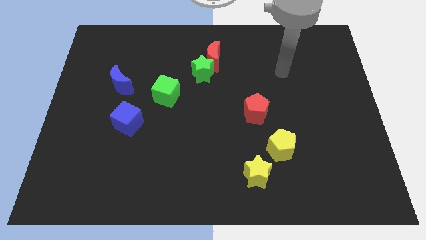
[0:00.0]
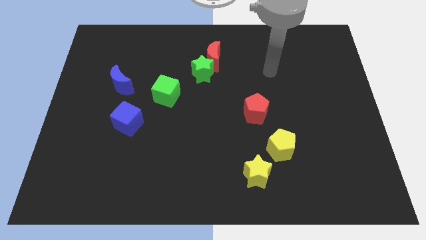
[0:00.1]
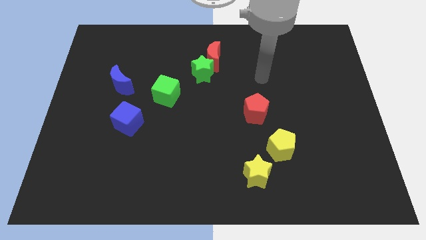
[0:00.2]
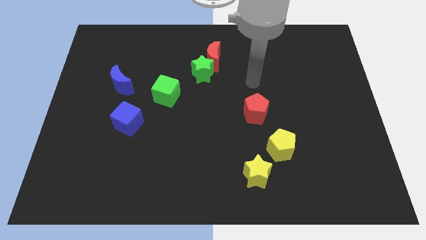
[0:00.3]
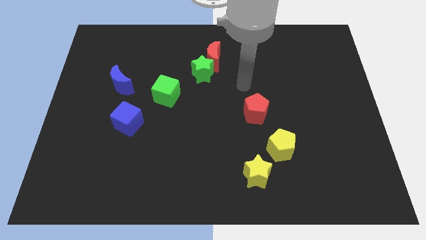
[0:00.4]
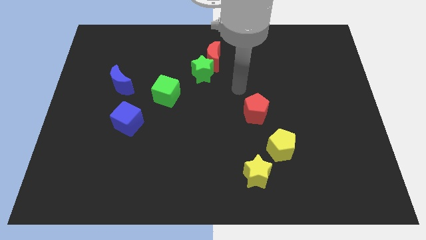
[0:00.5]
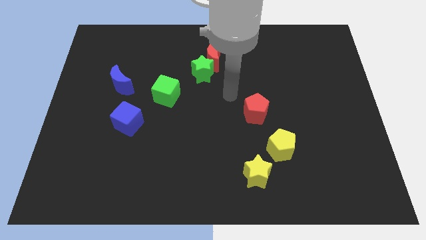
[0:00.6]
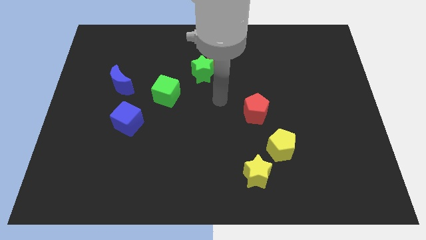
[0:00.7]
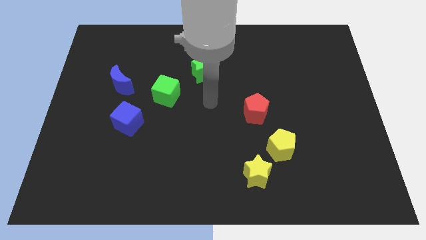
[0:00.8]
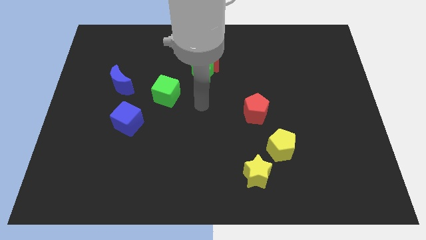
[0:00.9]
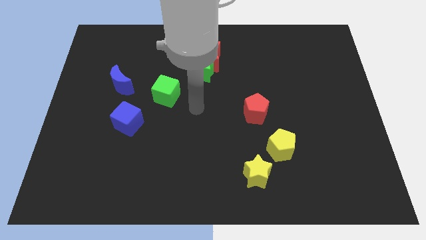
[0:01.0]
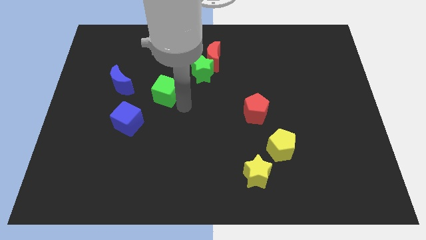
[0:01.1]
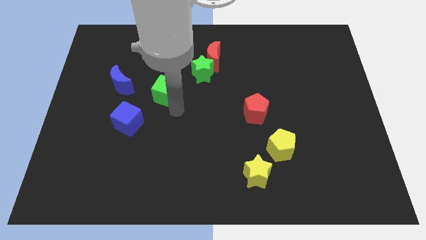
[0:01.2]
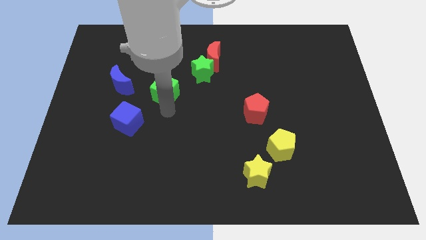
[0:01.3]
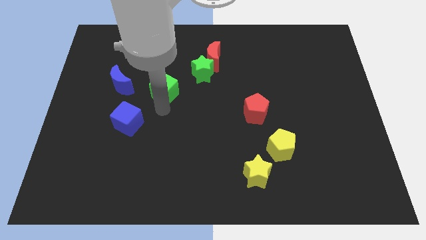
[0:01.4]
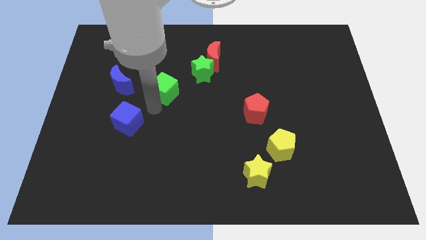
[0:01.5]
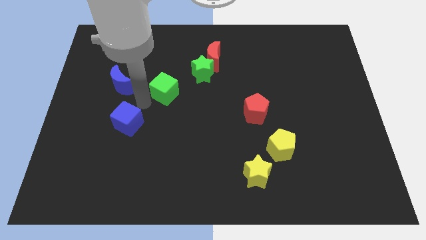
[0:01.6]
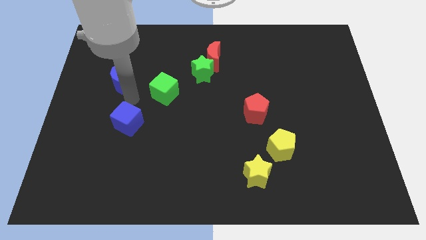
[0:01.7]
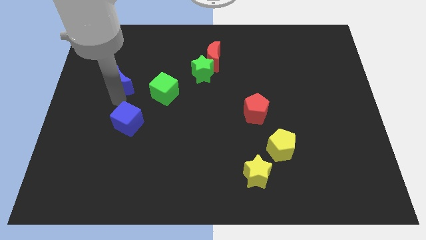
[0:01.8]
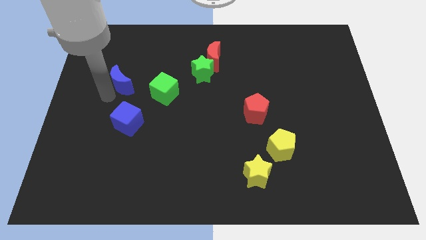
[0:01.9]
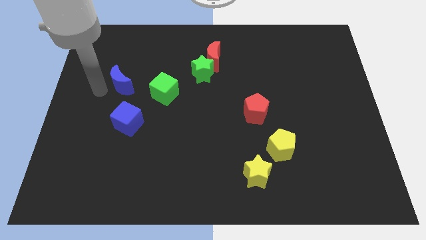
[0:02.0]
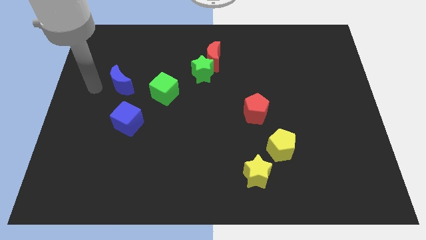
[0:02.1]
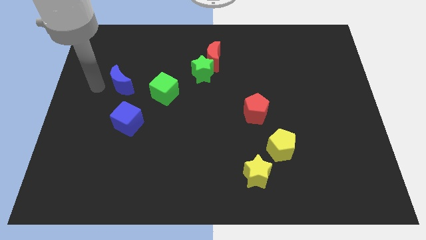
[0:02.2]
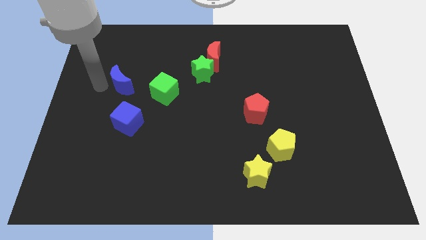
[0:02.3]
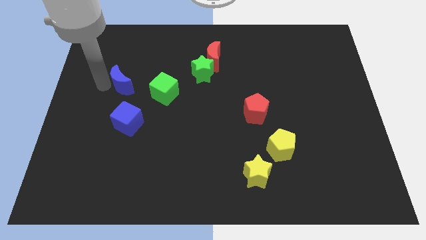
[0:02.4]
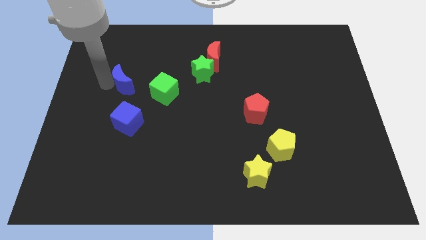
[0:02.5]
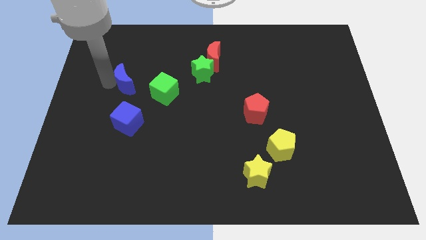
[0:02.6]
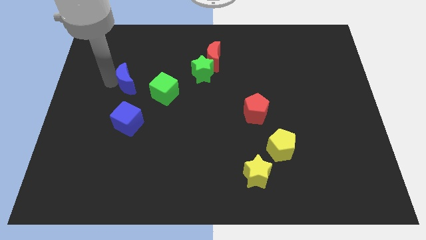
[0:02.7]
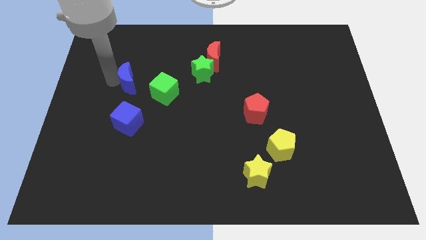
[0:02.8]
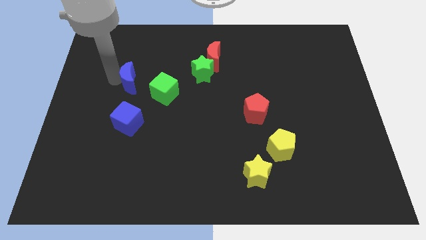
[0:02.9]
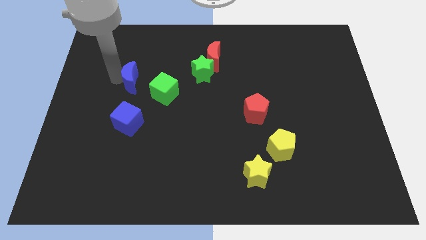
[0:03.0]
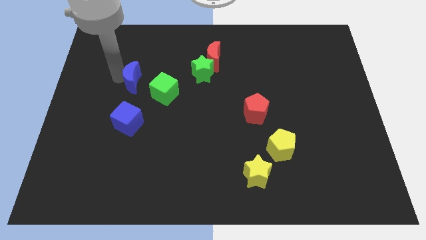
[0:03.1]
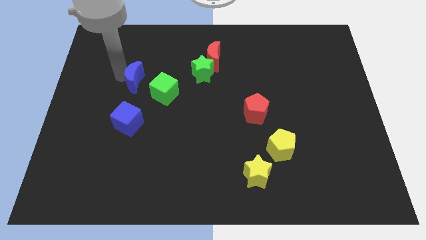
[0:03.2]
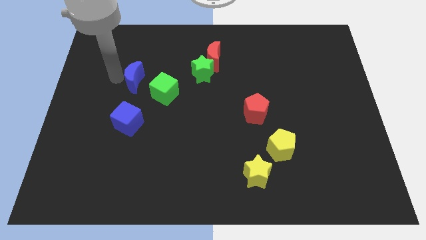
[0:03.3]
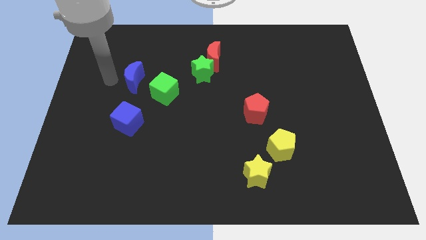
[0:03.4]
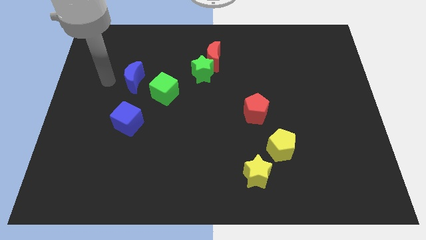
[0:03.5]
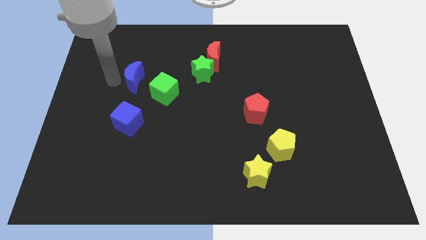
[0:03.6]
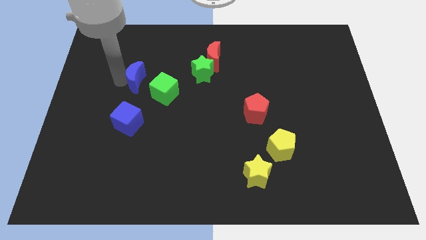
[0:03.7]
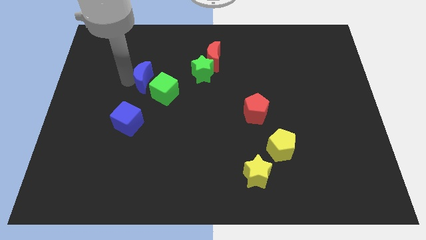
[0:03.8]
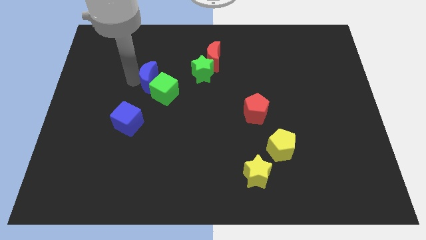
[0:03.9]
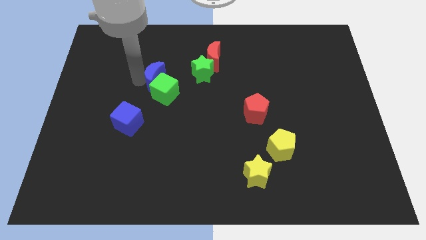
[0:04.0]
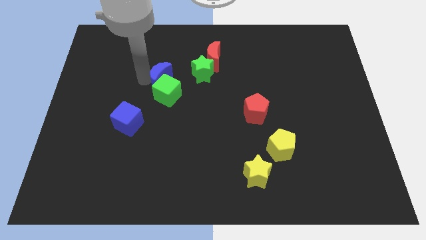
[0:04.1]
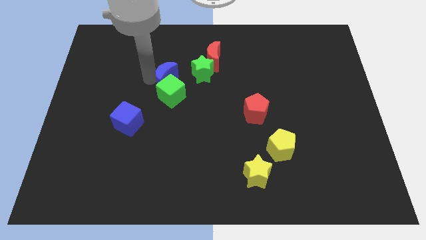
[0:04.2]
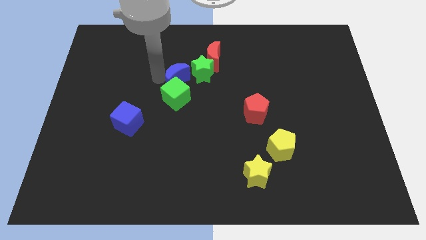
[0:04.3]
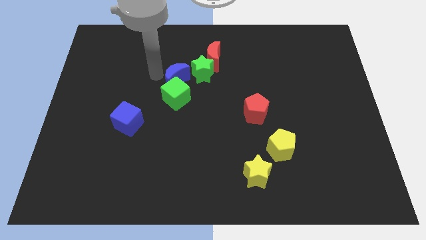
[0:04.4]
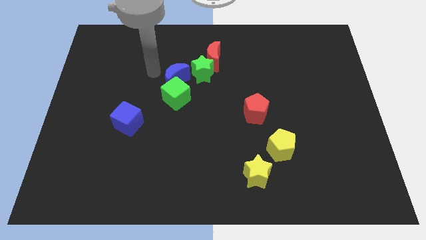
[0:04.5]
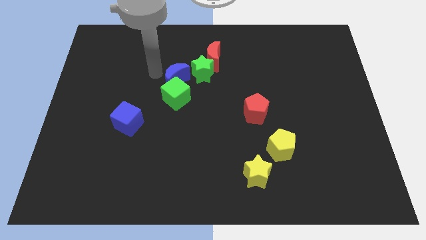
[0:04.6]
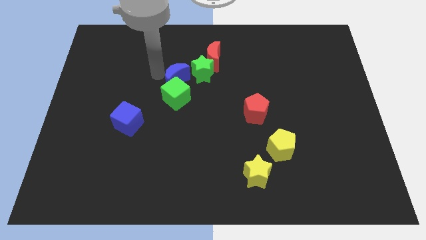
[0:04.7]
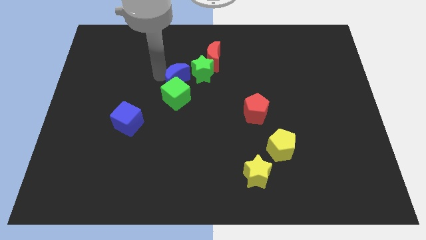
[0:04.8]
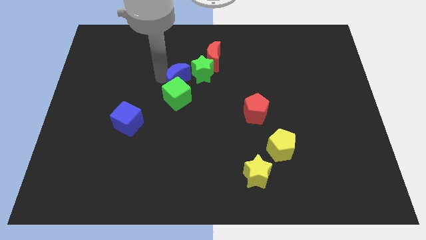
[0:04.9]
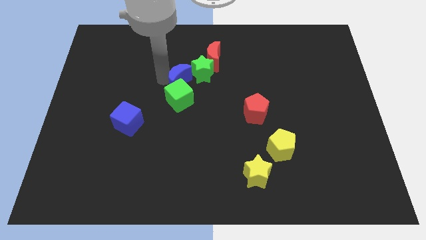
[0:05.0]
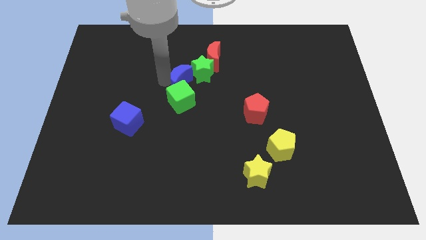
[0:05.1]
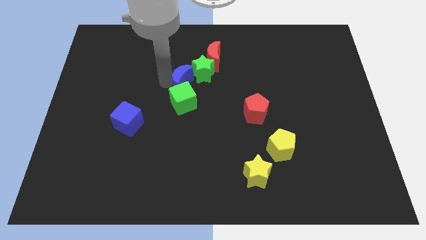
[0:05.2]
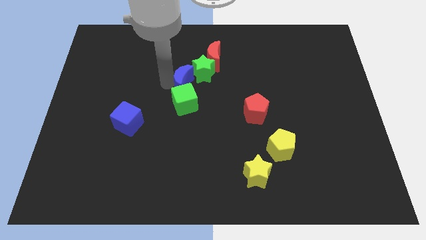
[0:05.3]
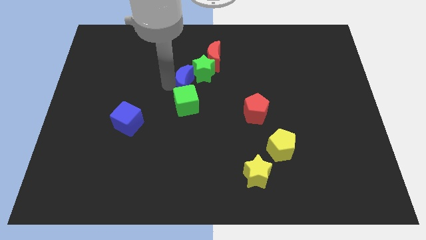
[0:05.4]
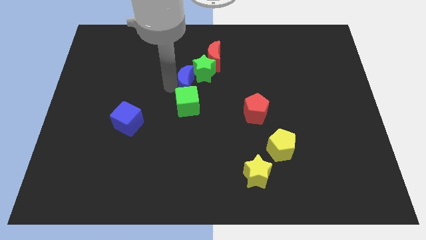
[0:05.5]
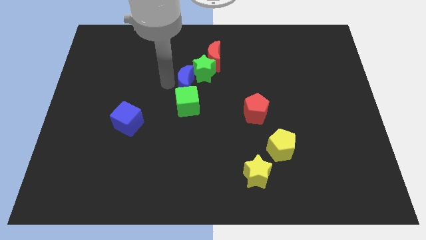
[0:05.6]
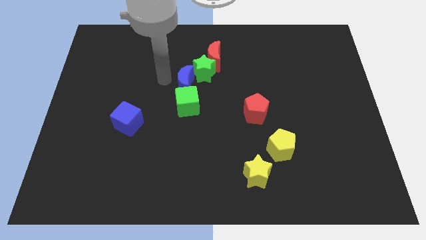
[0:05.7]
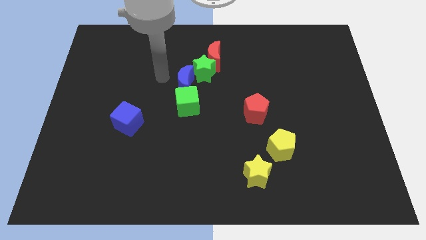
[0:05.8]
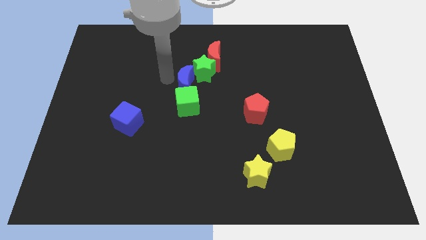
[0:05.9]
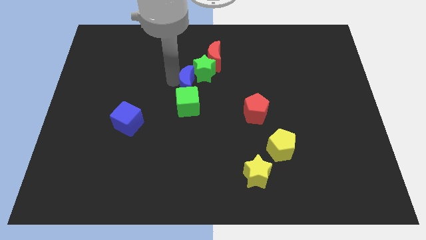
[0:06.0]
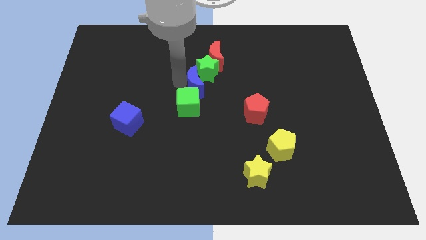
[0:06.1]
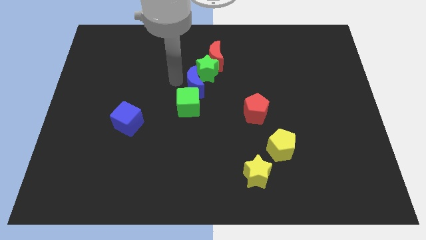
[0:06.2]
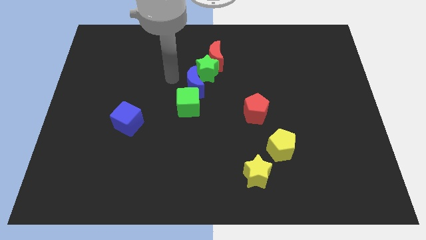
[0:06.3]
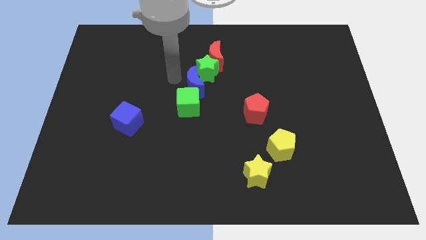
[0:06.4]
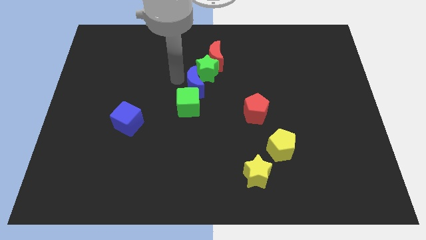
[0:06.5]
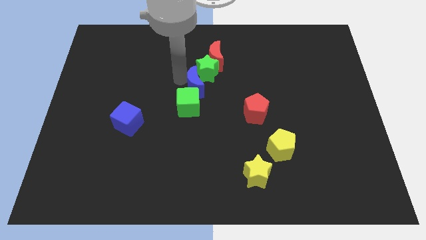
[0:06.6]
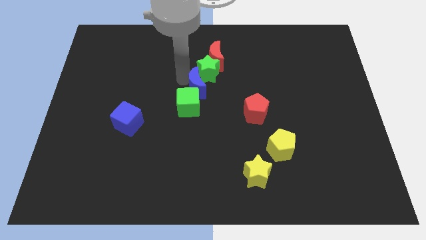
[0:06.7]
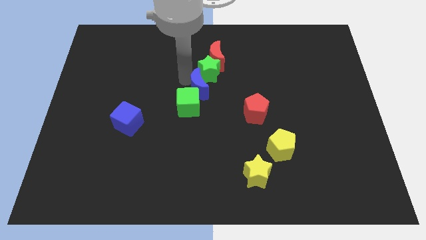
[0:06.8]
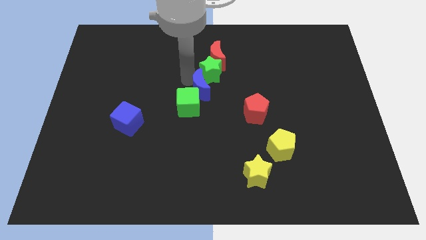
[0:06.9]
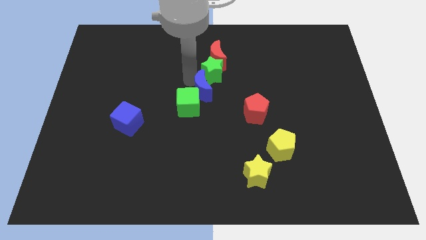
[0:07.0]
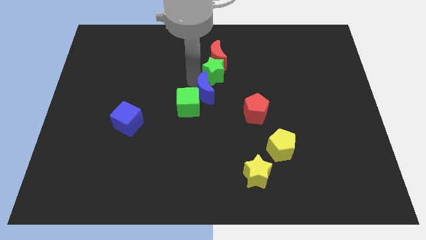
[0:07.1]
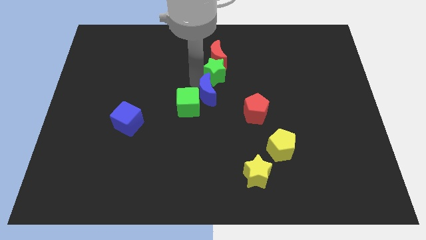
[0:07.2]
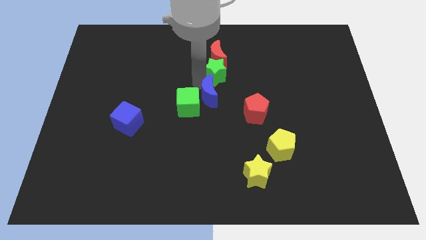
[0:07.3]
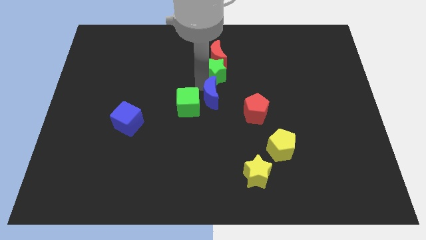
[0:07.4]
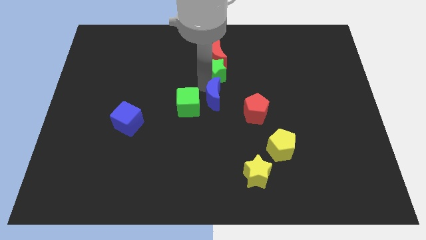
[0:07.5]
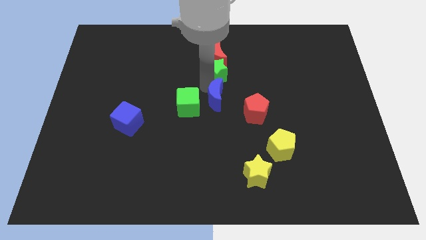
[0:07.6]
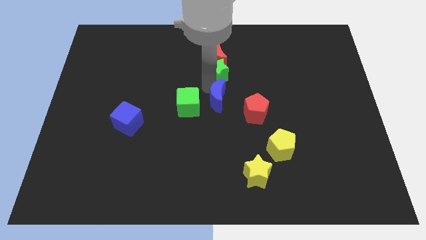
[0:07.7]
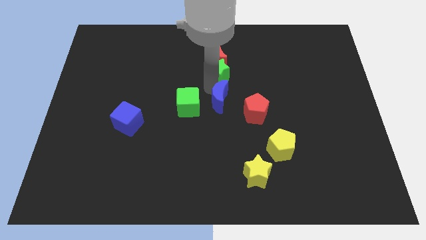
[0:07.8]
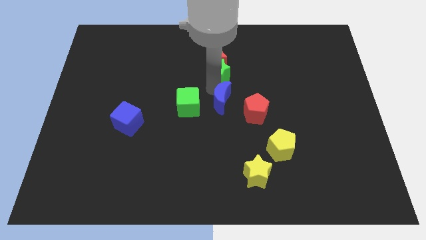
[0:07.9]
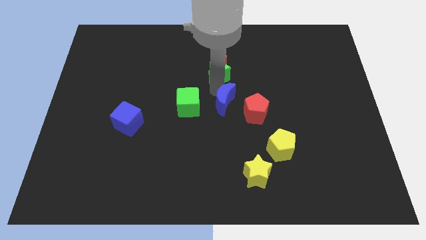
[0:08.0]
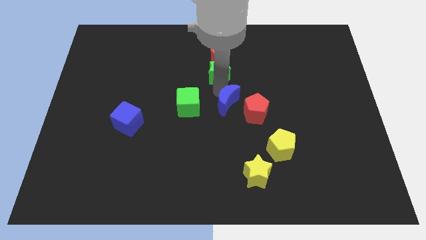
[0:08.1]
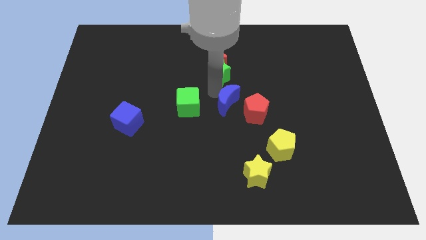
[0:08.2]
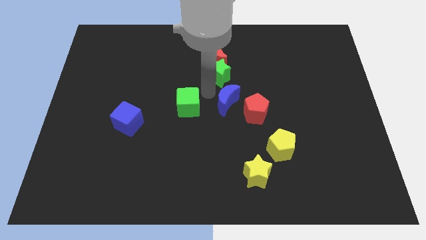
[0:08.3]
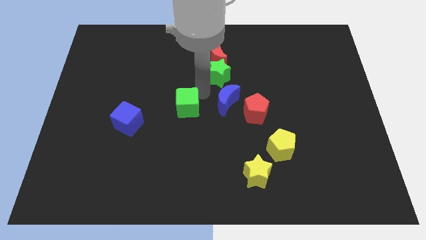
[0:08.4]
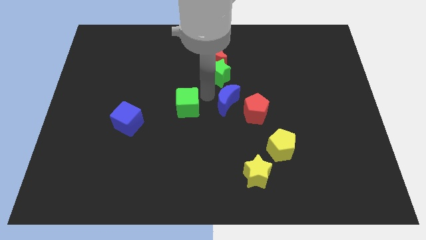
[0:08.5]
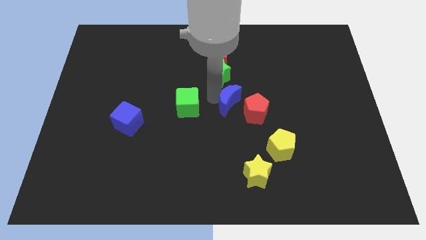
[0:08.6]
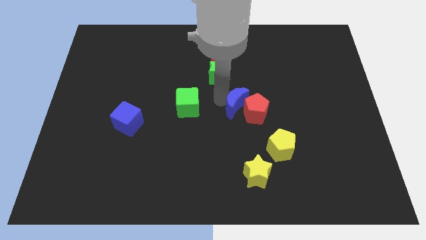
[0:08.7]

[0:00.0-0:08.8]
slide the blue moon next to the red pentagon
